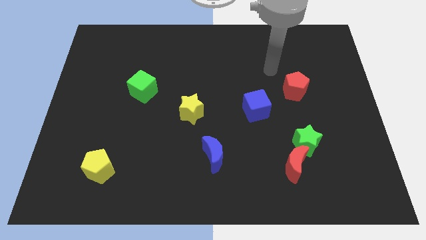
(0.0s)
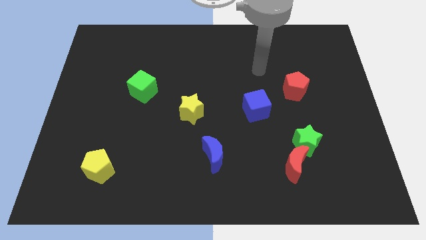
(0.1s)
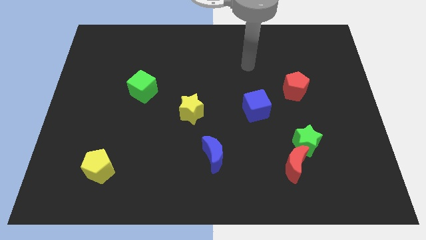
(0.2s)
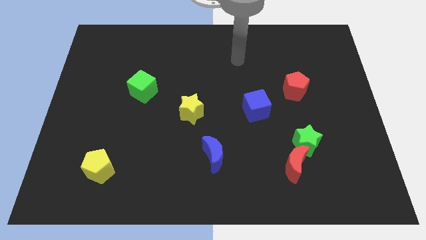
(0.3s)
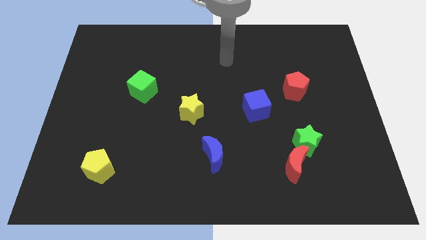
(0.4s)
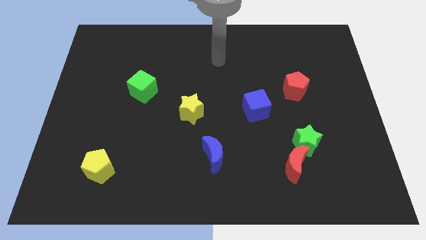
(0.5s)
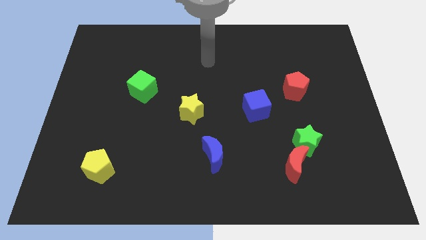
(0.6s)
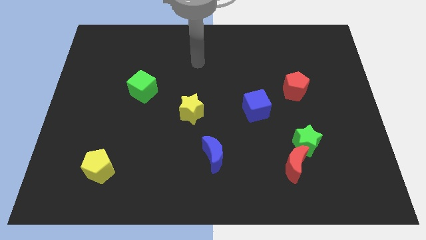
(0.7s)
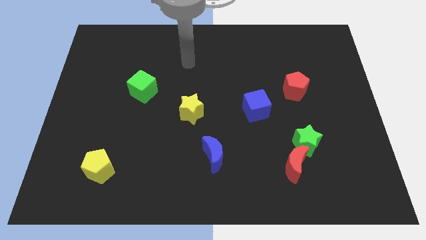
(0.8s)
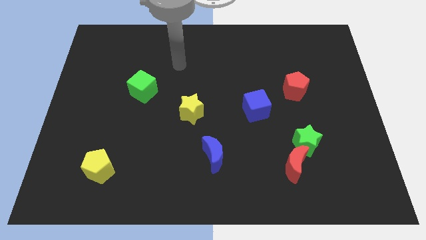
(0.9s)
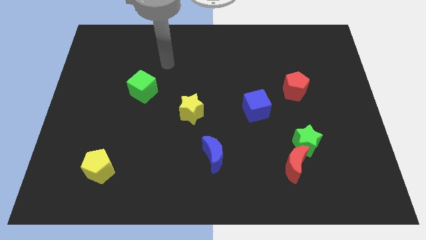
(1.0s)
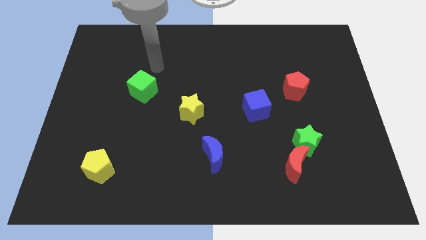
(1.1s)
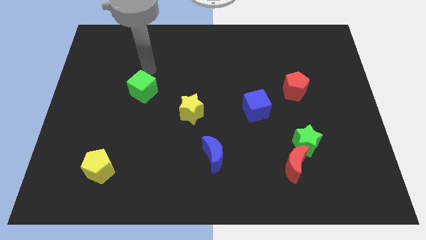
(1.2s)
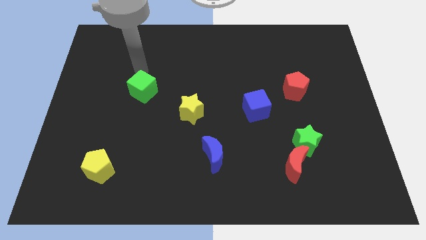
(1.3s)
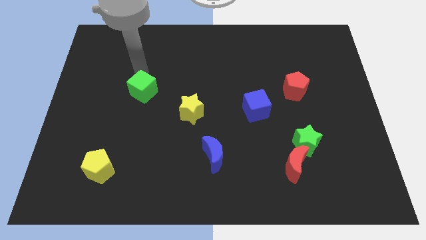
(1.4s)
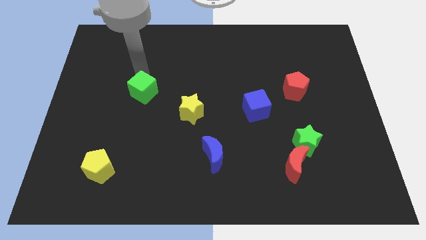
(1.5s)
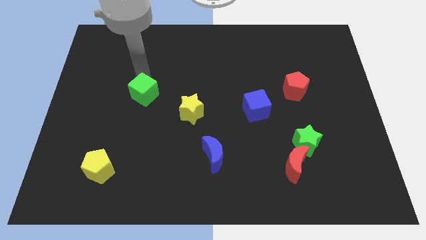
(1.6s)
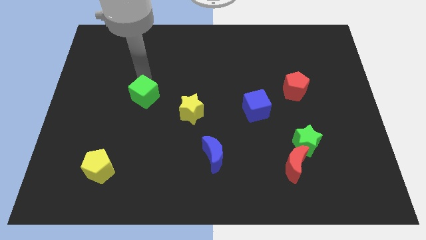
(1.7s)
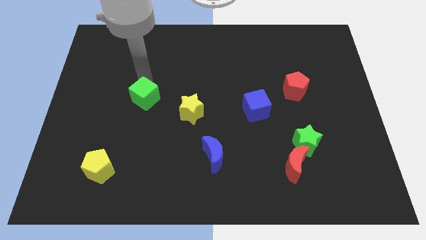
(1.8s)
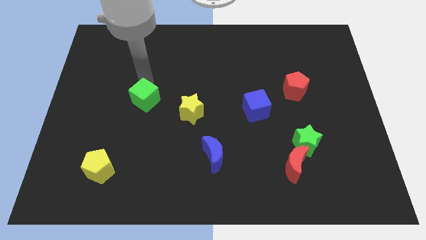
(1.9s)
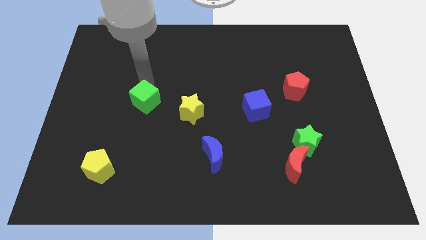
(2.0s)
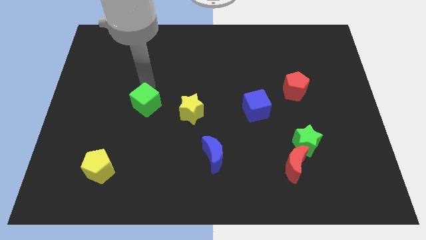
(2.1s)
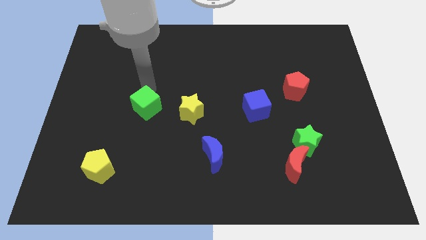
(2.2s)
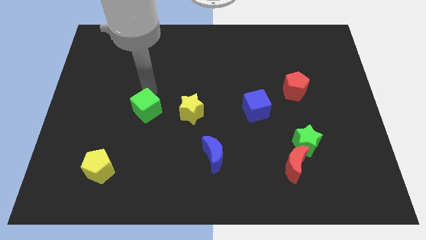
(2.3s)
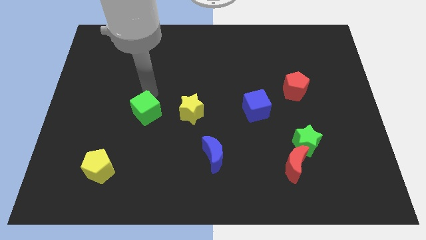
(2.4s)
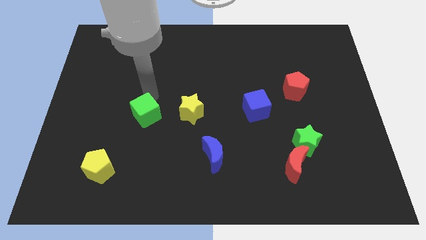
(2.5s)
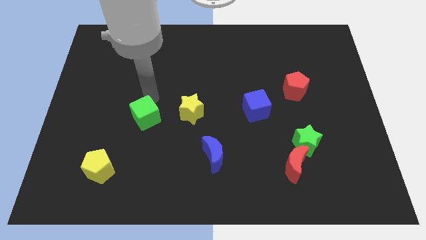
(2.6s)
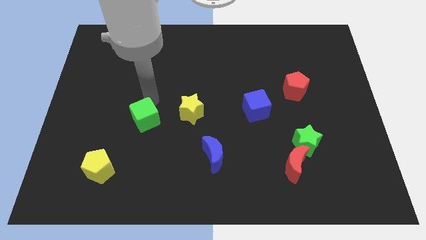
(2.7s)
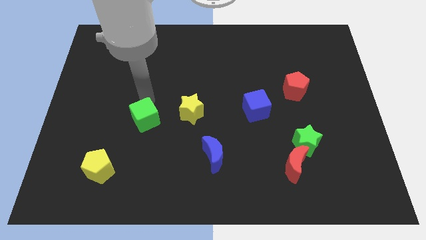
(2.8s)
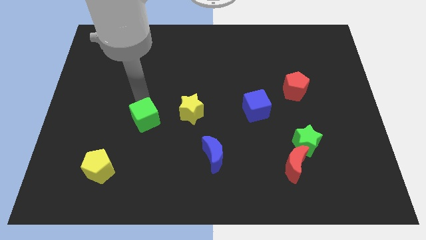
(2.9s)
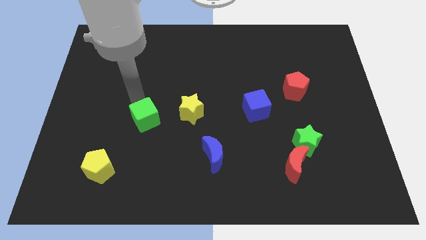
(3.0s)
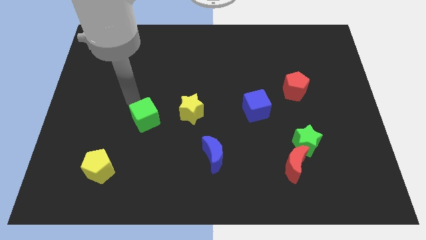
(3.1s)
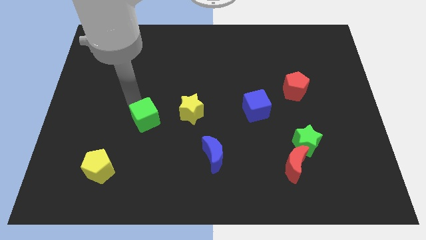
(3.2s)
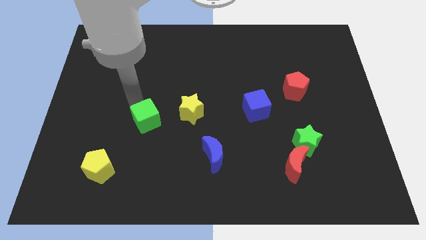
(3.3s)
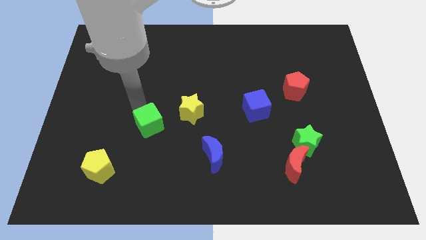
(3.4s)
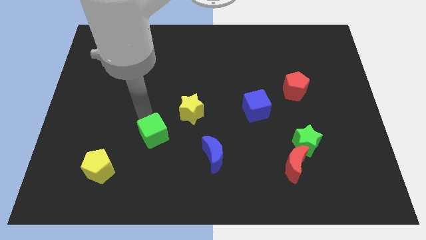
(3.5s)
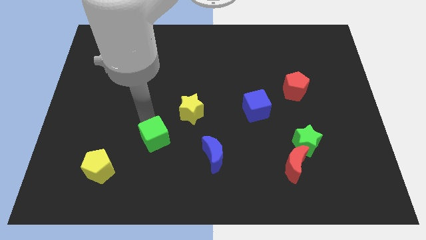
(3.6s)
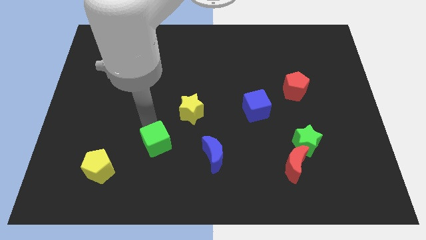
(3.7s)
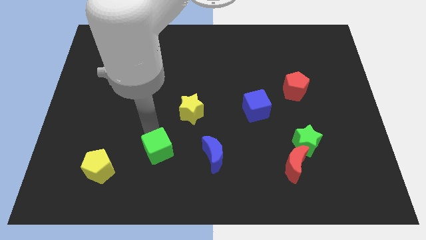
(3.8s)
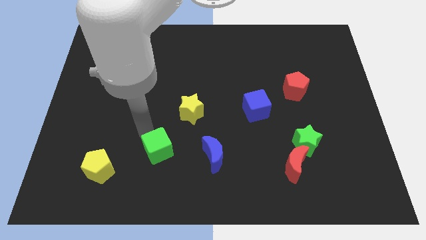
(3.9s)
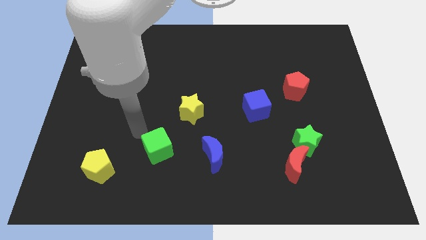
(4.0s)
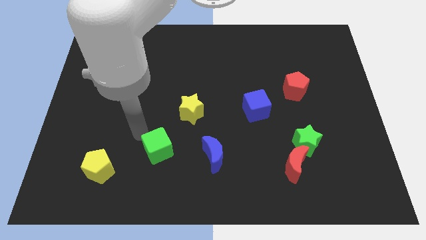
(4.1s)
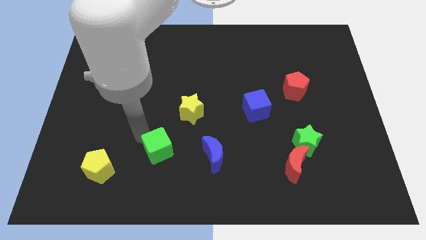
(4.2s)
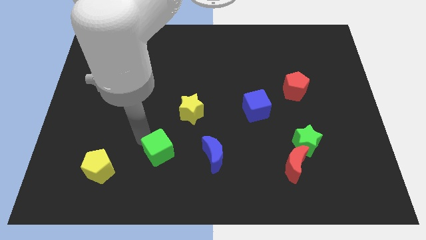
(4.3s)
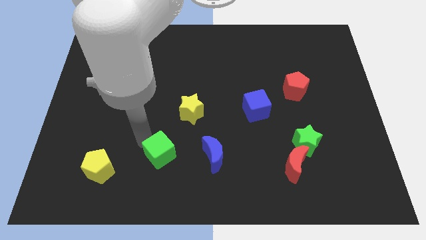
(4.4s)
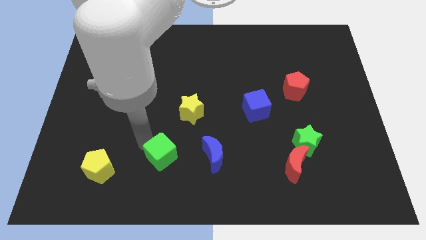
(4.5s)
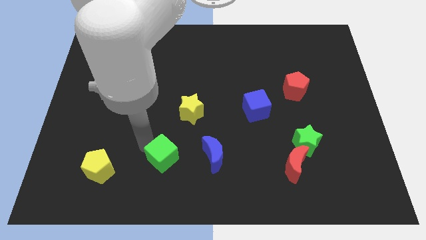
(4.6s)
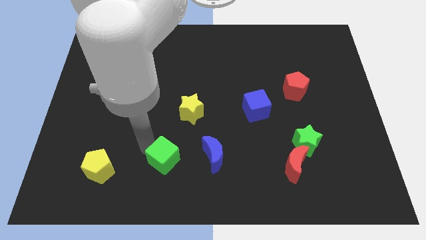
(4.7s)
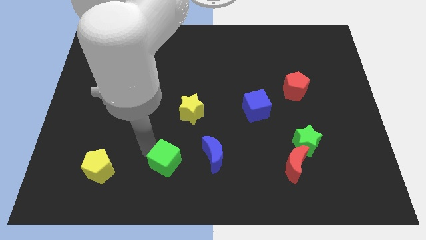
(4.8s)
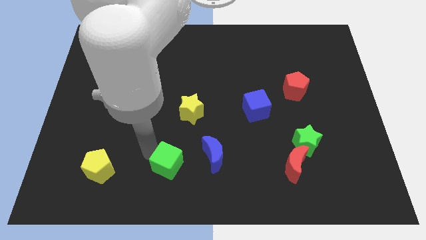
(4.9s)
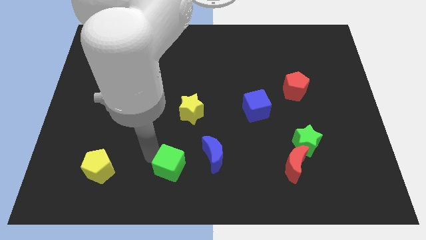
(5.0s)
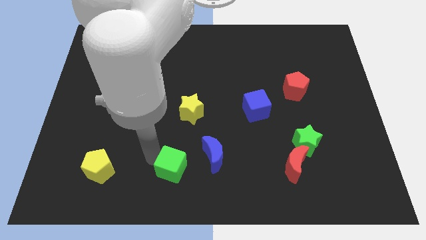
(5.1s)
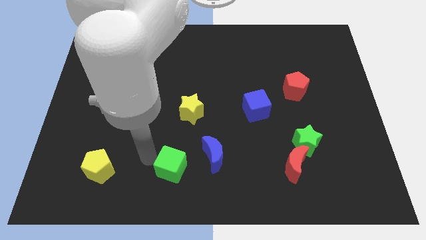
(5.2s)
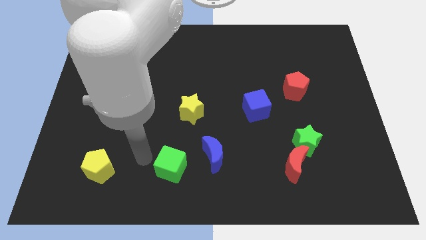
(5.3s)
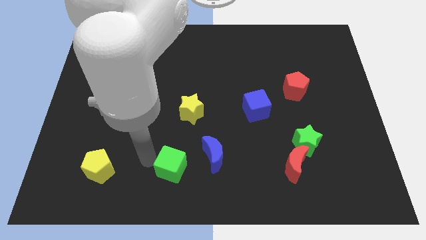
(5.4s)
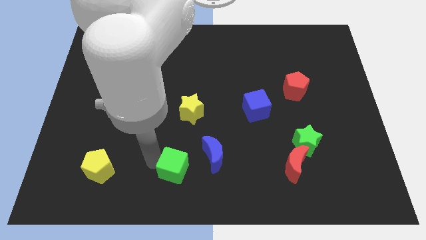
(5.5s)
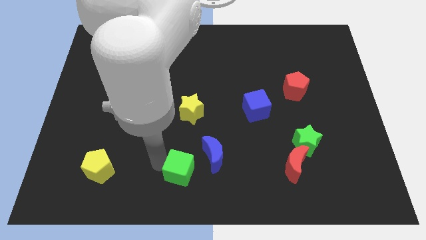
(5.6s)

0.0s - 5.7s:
push the green cube downwards and right diagonally

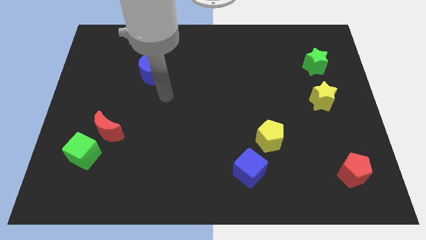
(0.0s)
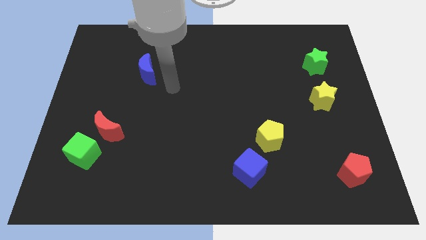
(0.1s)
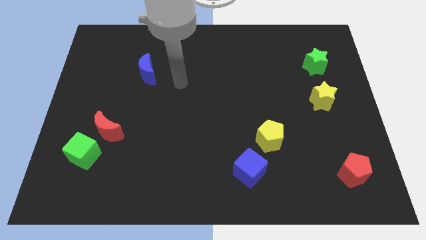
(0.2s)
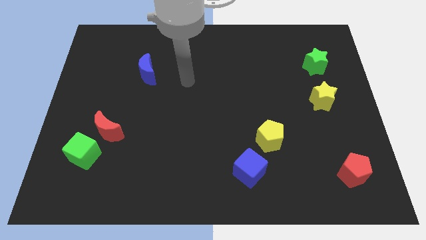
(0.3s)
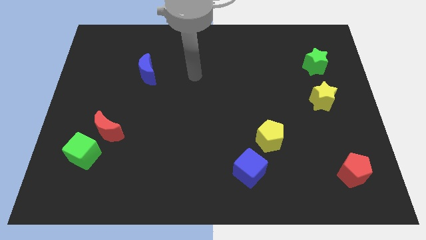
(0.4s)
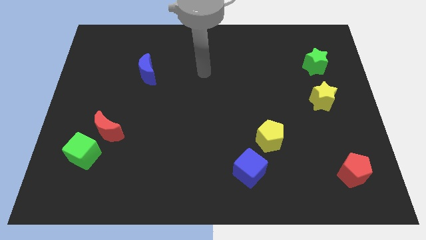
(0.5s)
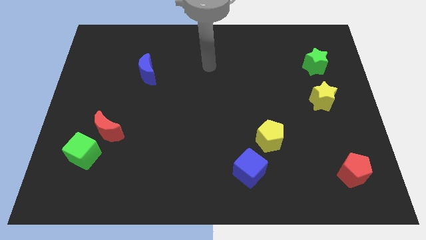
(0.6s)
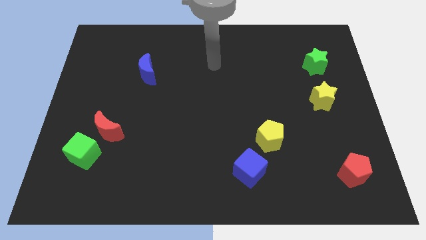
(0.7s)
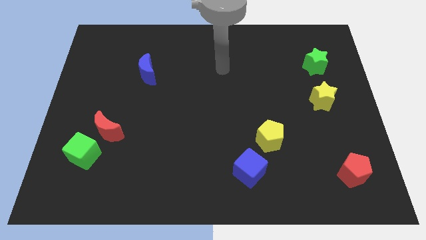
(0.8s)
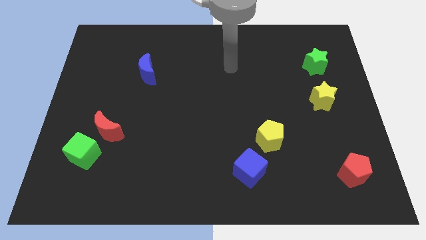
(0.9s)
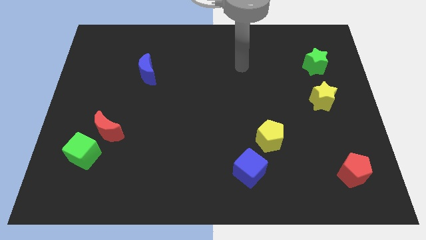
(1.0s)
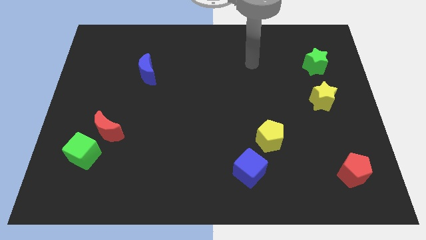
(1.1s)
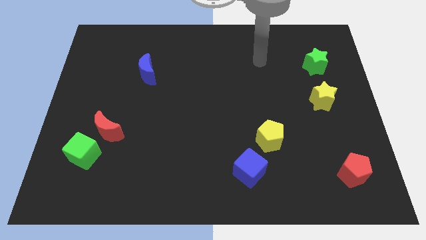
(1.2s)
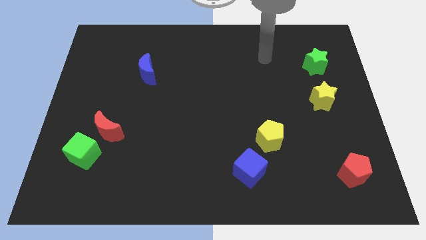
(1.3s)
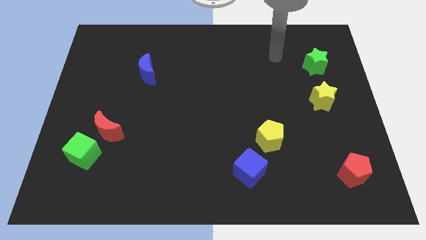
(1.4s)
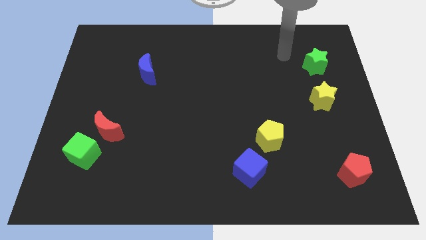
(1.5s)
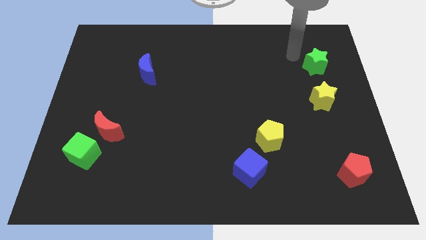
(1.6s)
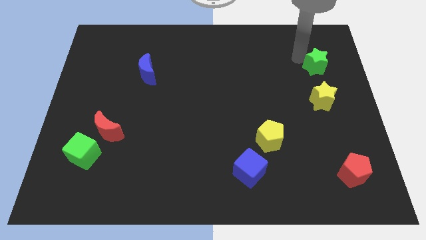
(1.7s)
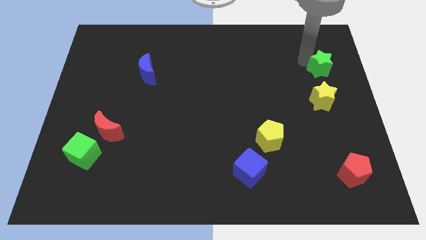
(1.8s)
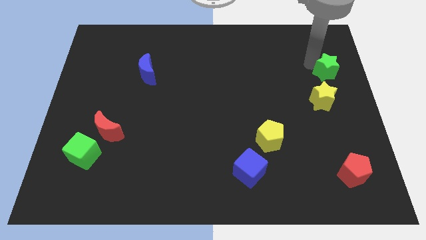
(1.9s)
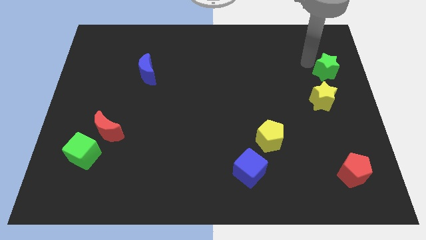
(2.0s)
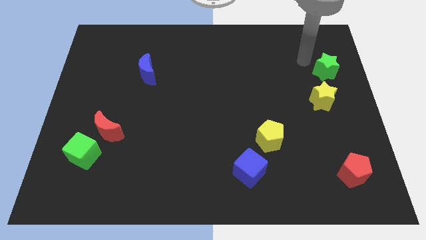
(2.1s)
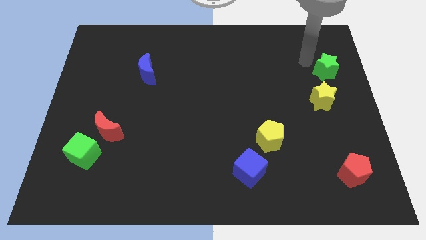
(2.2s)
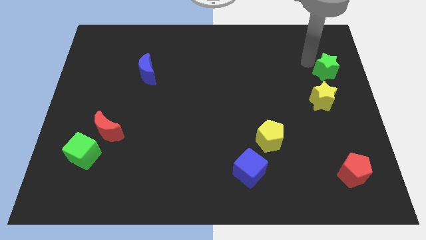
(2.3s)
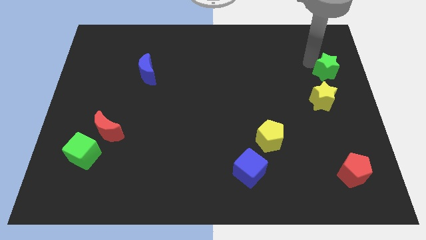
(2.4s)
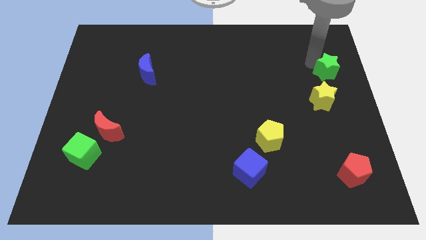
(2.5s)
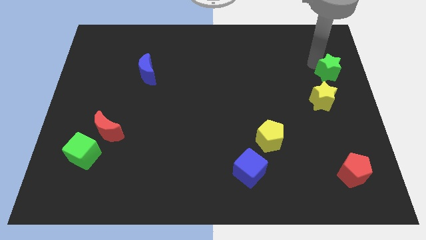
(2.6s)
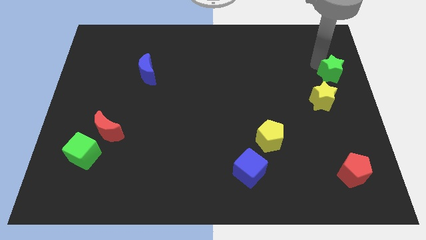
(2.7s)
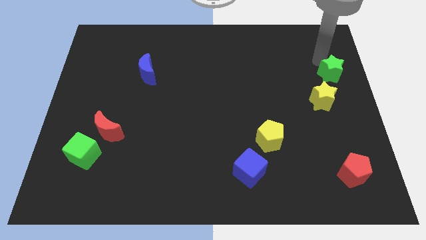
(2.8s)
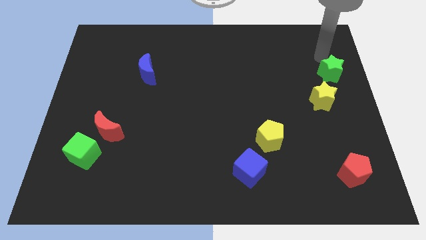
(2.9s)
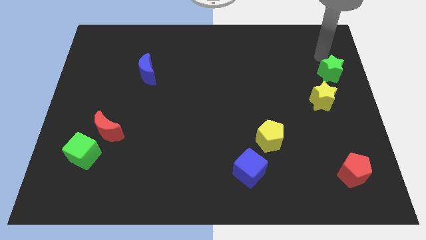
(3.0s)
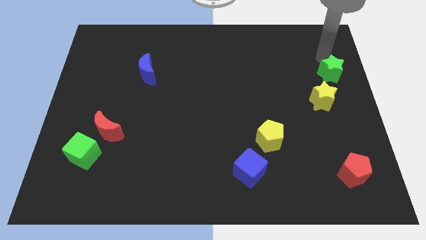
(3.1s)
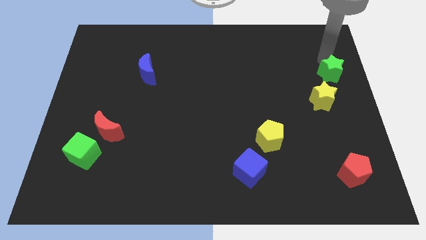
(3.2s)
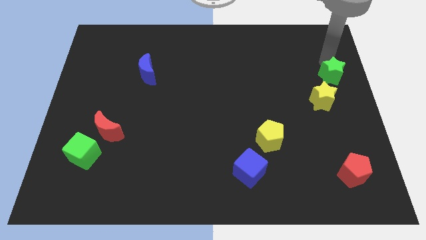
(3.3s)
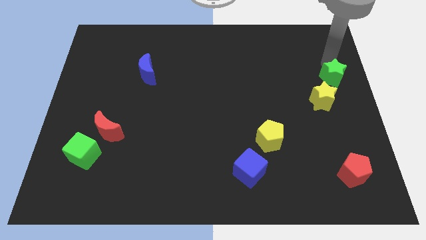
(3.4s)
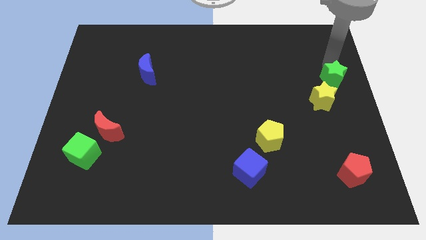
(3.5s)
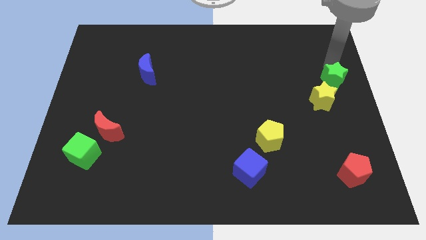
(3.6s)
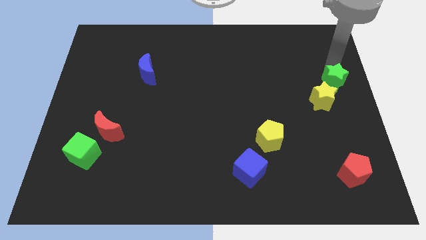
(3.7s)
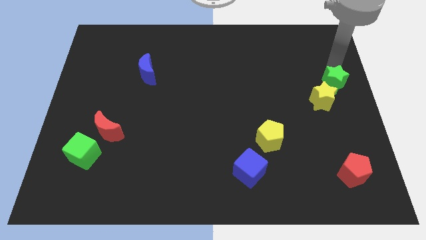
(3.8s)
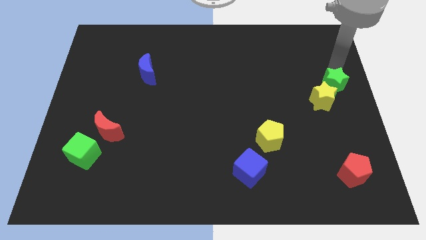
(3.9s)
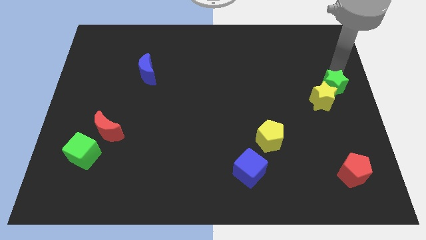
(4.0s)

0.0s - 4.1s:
slightly move the green star downwards
